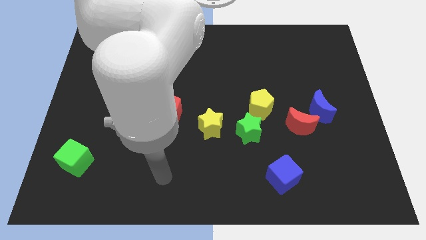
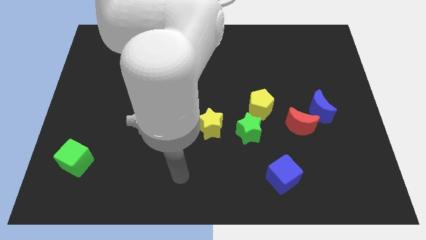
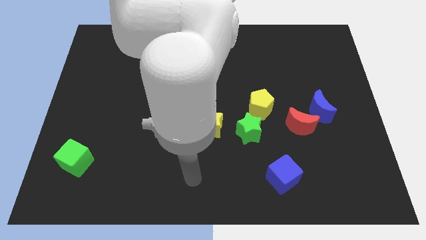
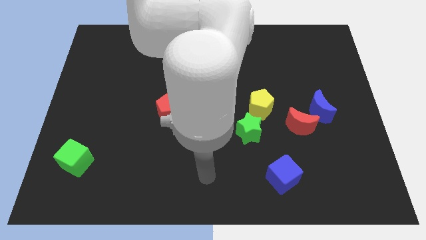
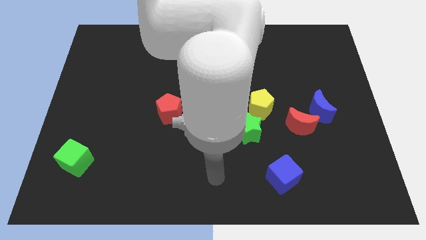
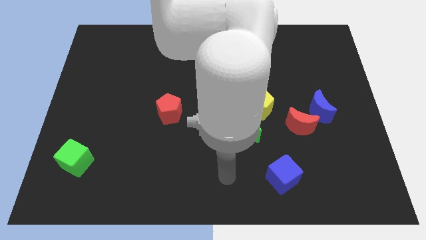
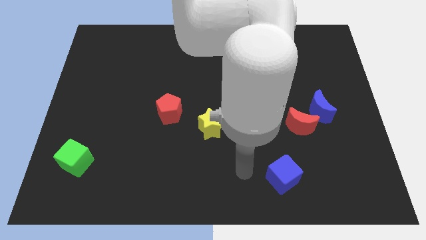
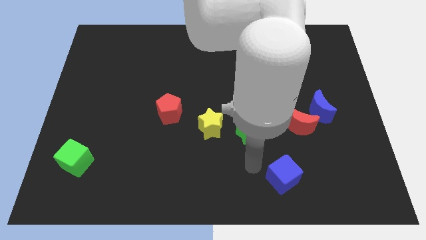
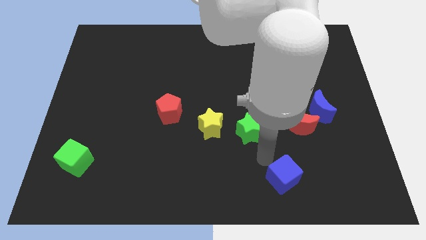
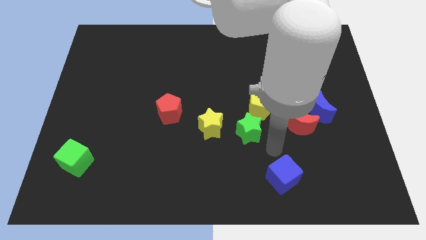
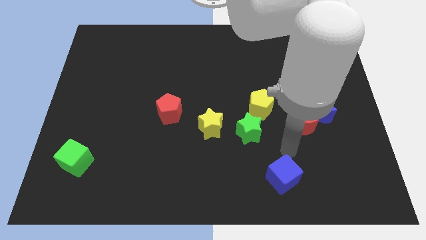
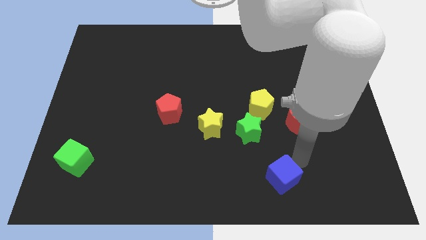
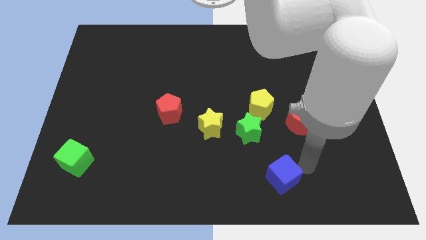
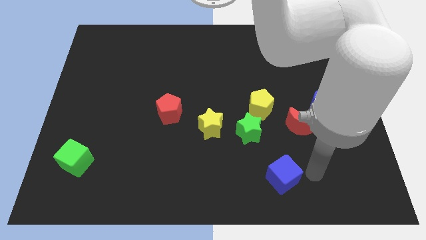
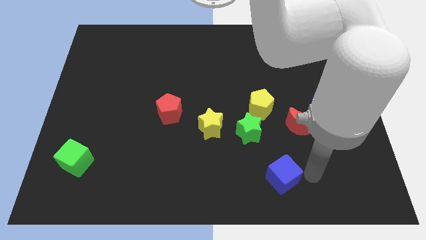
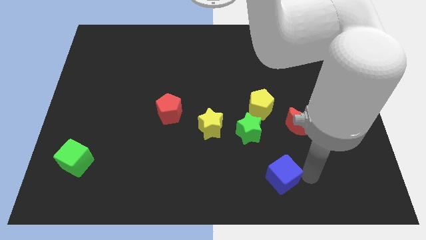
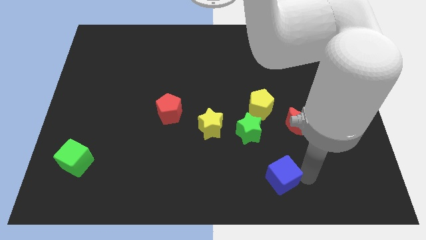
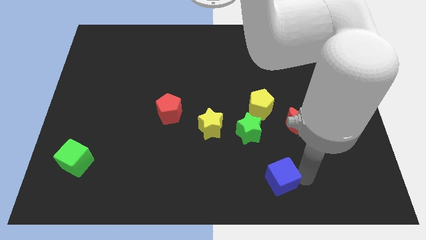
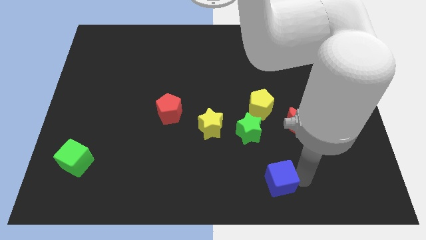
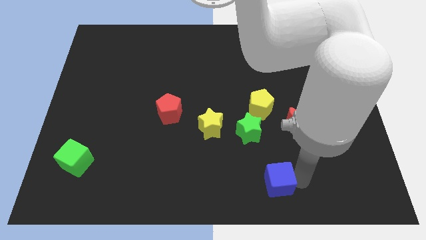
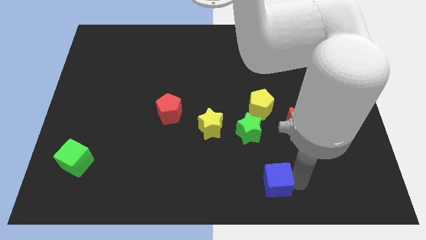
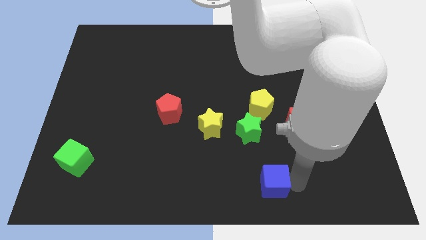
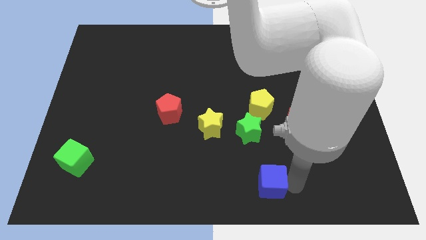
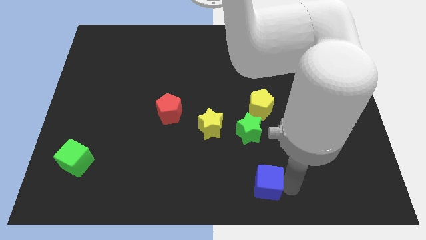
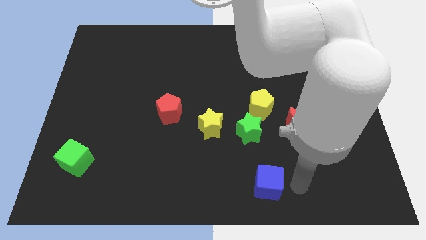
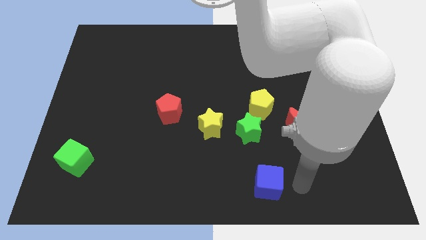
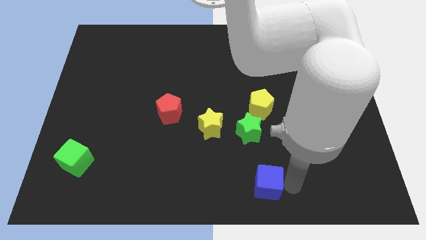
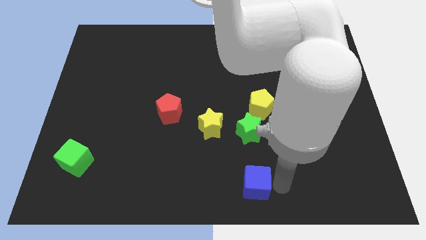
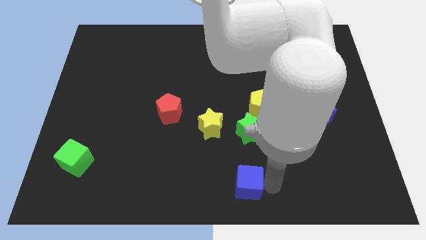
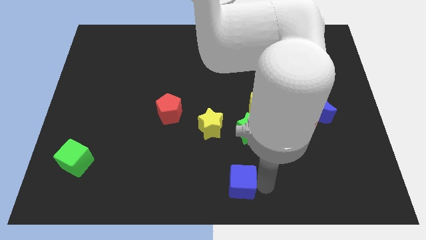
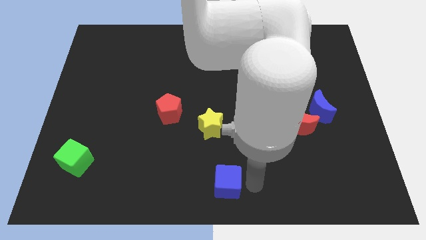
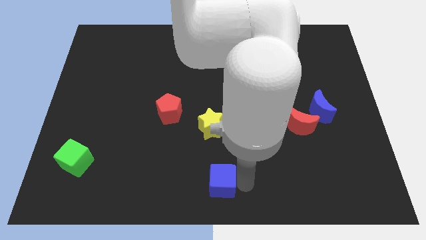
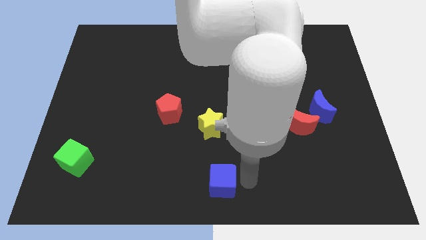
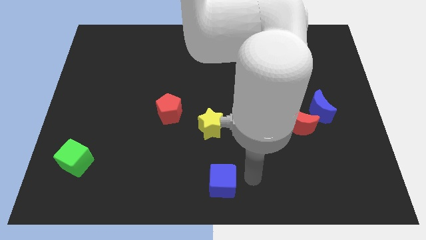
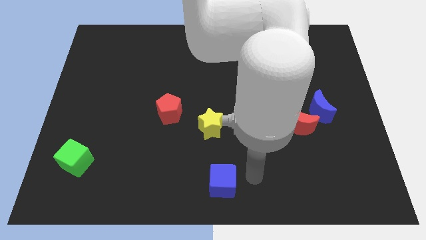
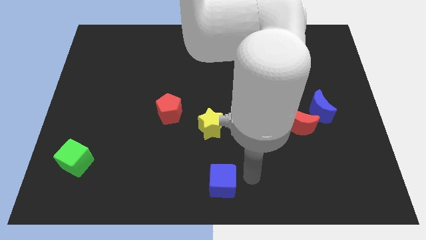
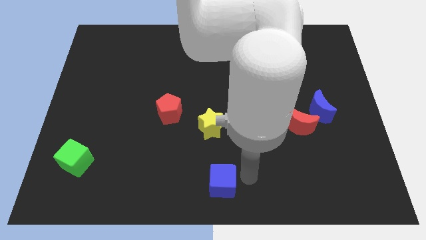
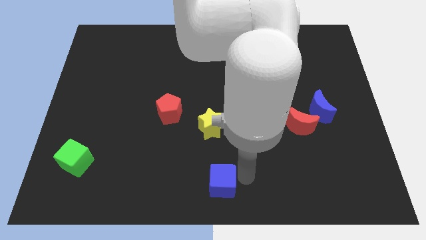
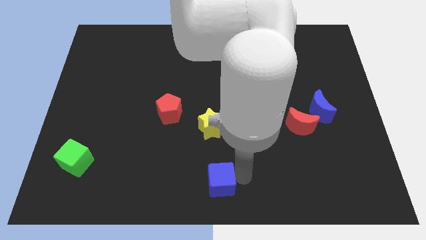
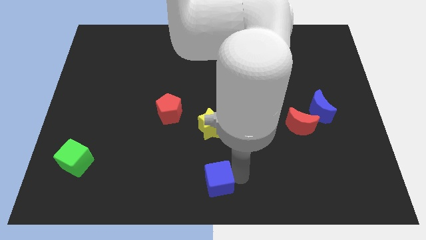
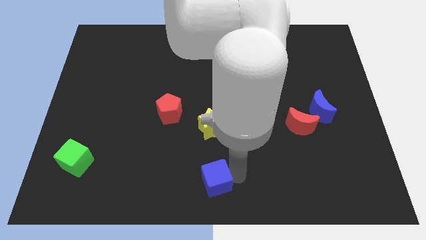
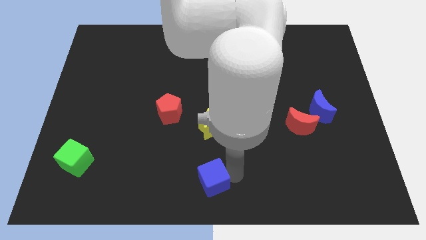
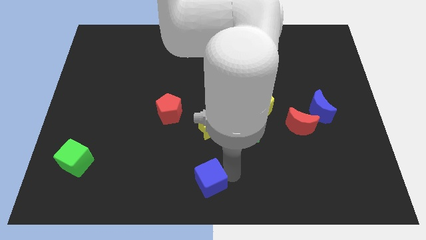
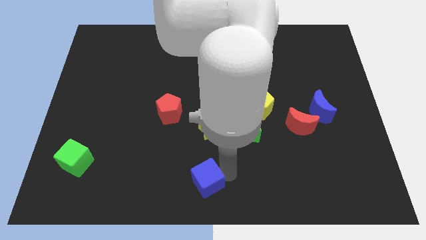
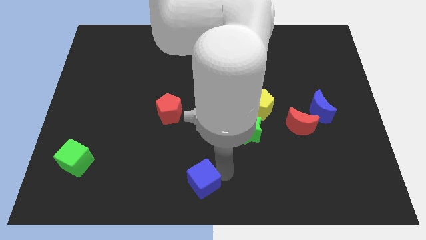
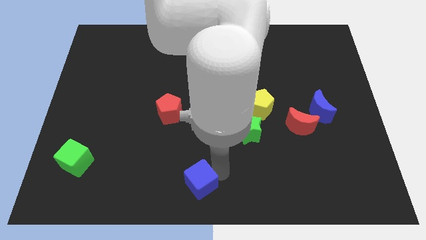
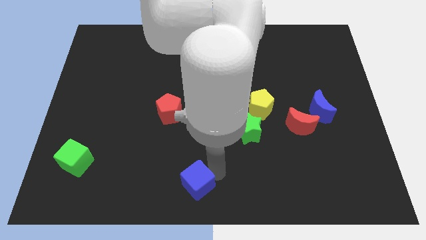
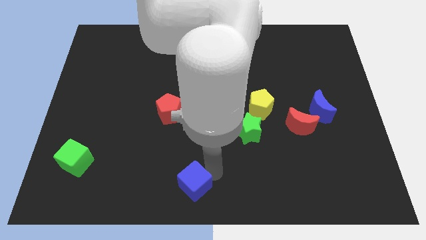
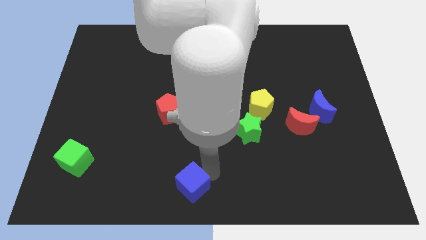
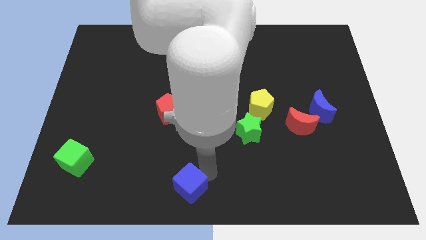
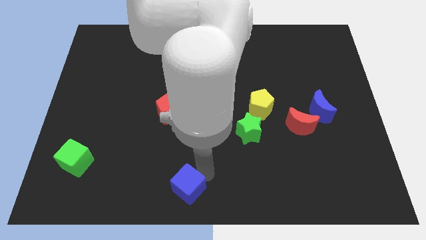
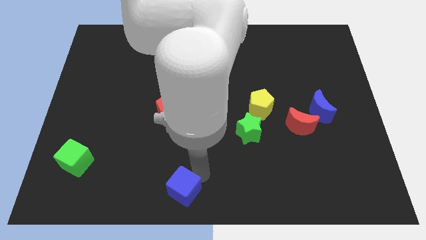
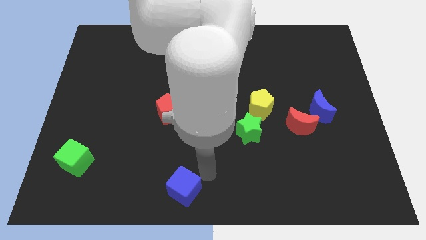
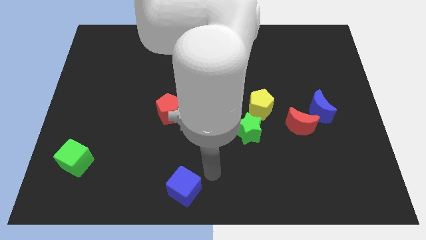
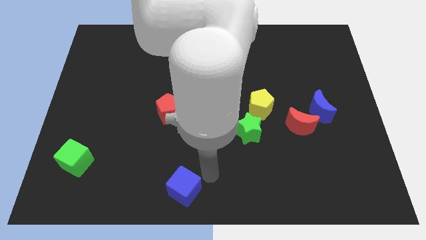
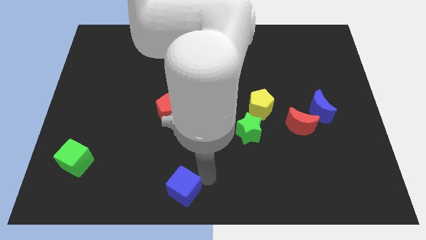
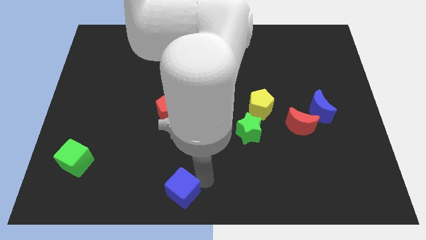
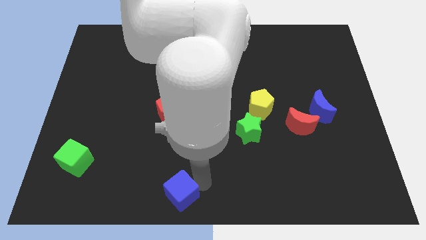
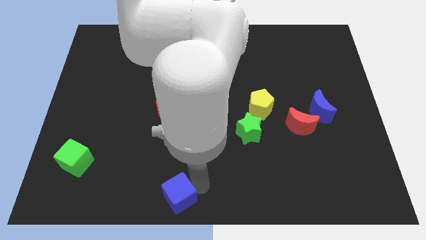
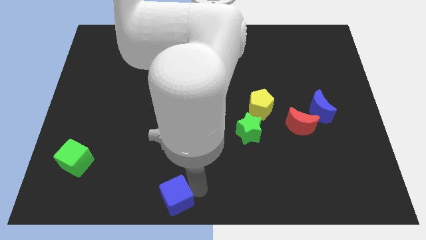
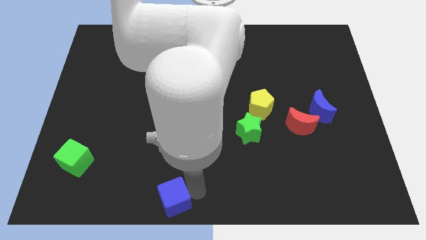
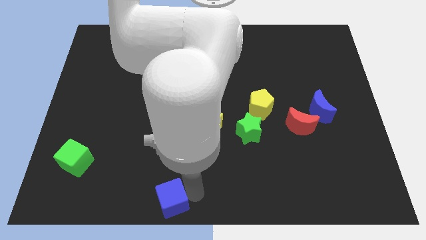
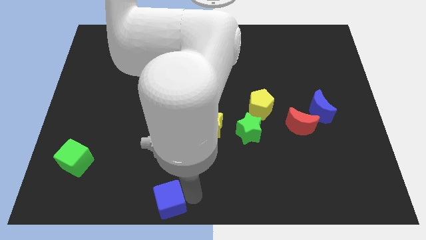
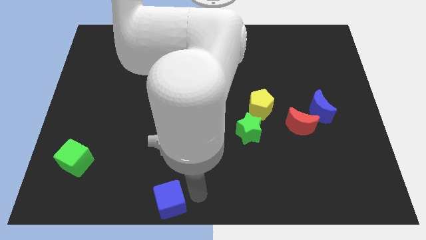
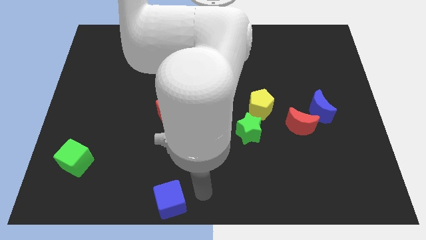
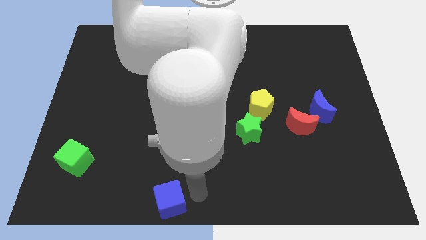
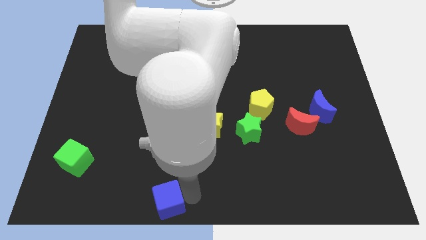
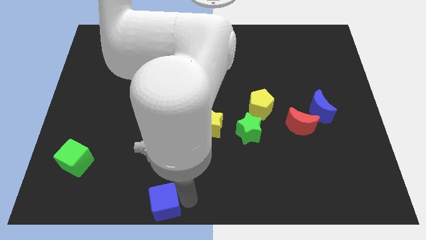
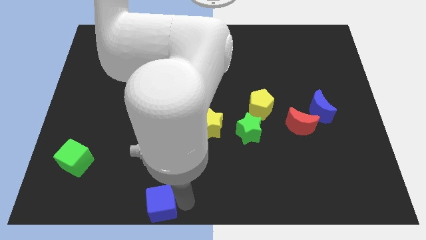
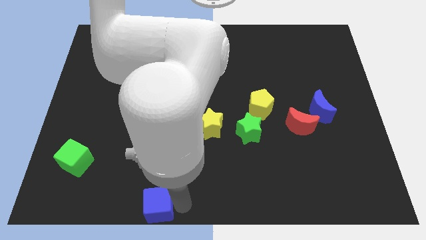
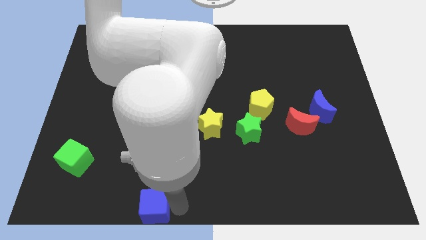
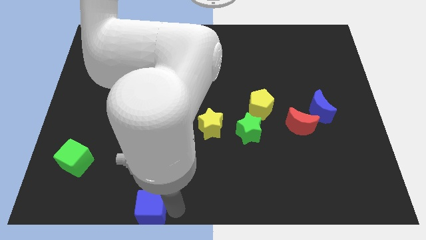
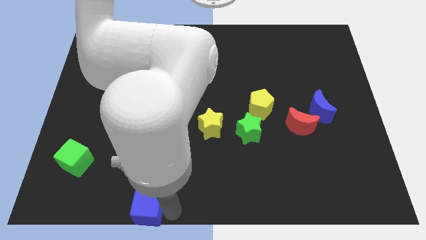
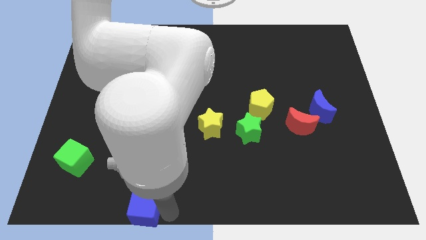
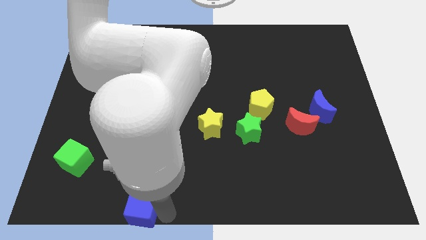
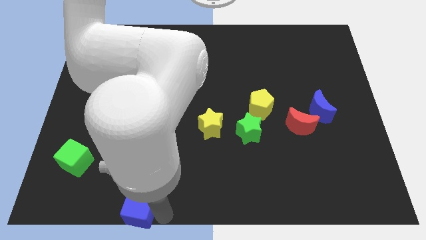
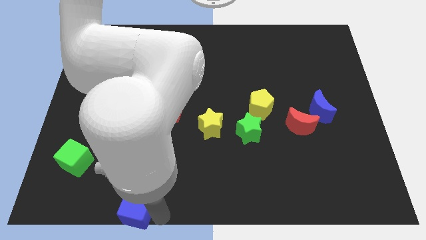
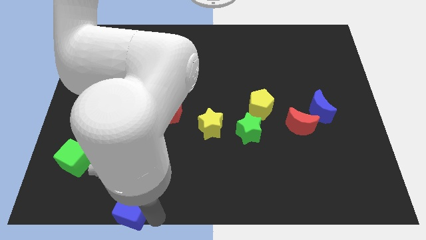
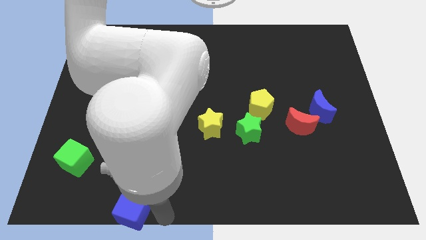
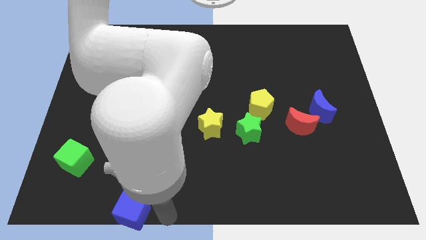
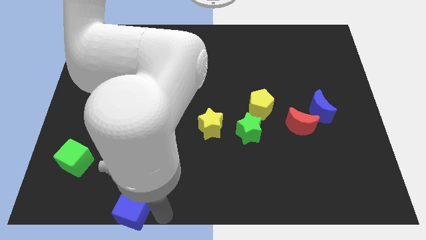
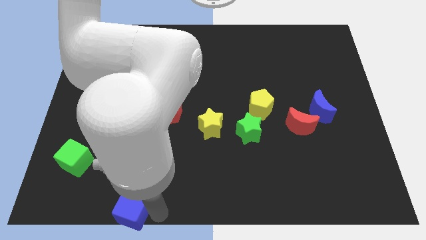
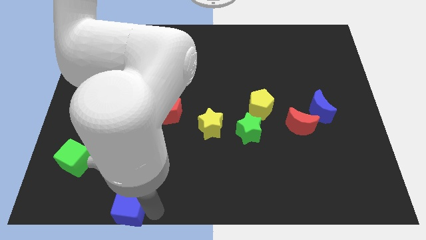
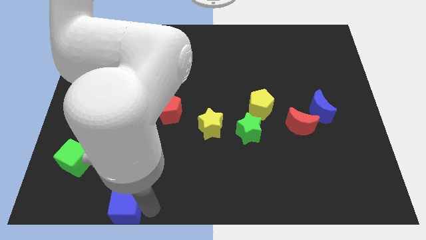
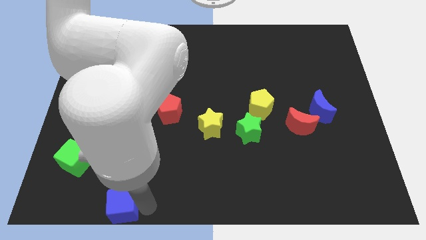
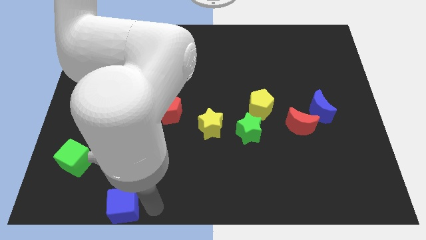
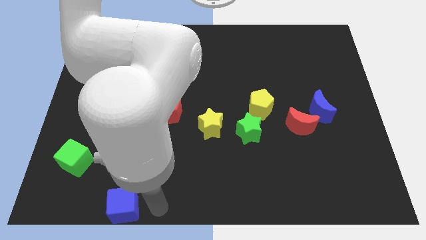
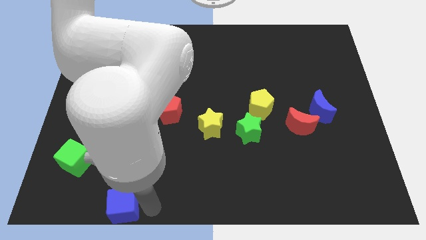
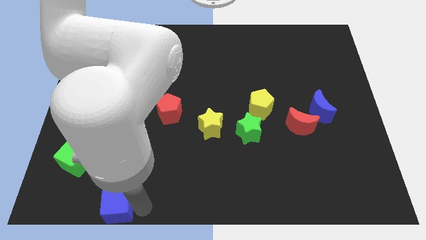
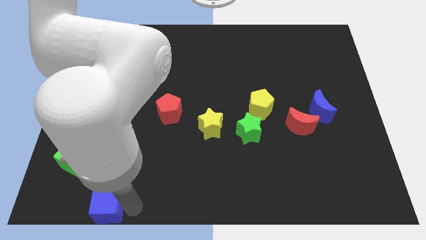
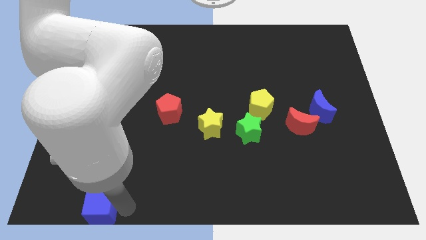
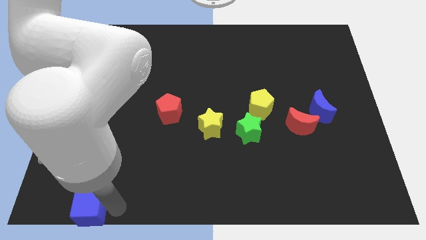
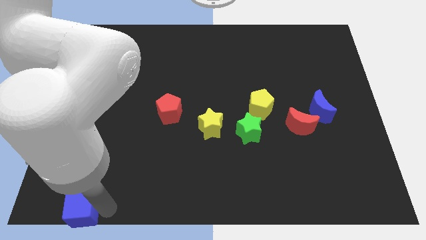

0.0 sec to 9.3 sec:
move the blue cube to the bottom left
